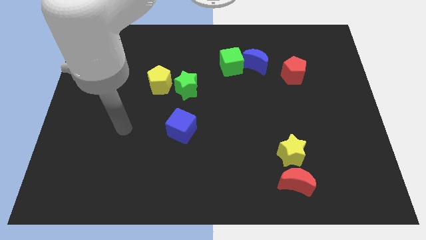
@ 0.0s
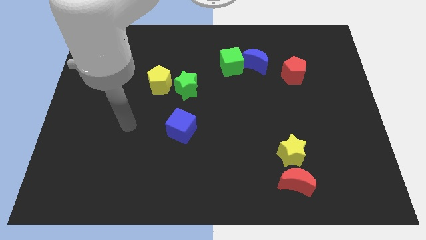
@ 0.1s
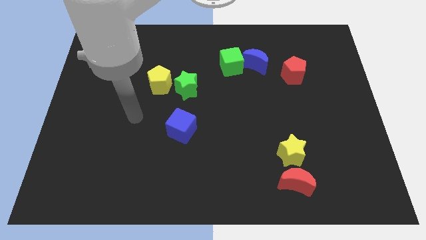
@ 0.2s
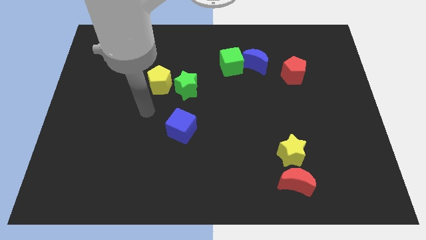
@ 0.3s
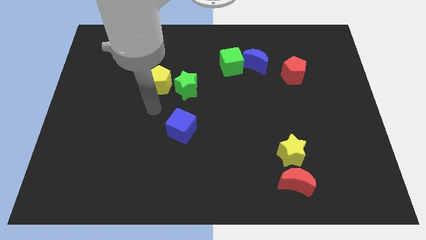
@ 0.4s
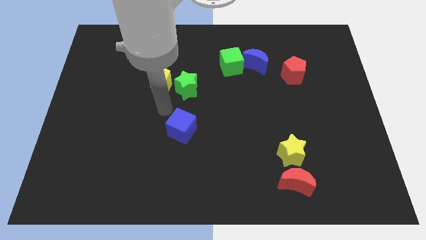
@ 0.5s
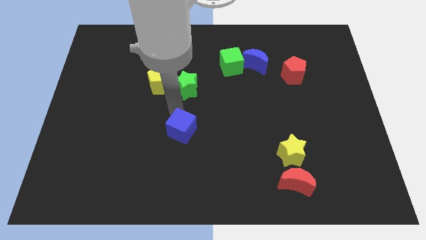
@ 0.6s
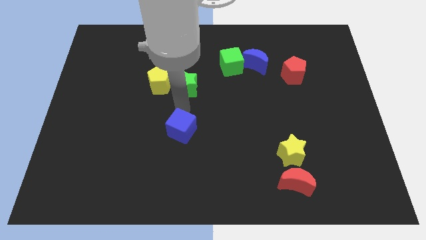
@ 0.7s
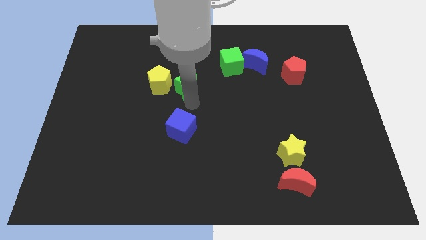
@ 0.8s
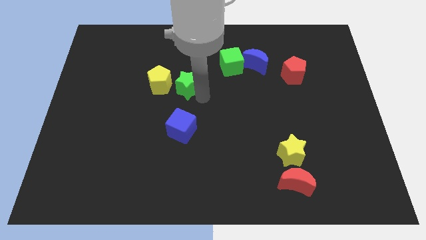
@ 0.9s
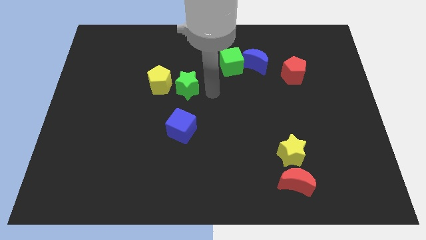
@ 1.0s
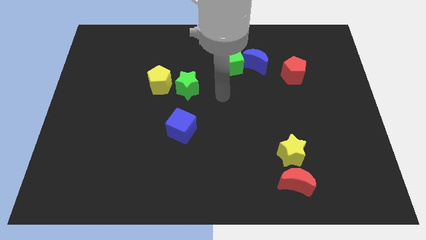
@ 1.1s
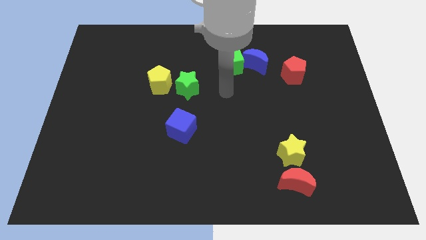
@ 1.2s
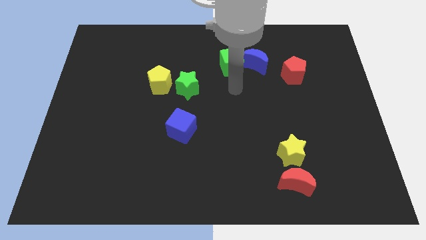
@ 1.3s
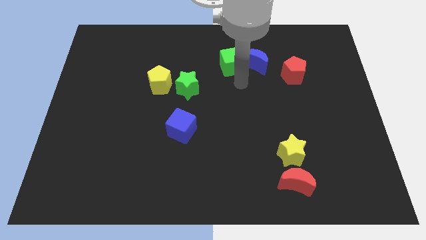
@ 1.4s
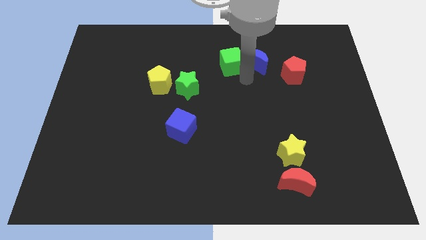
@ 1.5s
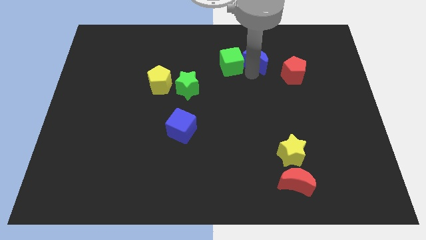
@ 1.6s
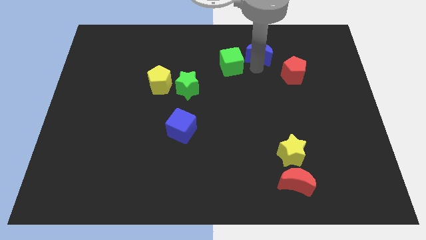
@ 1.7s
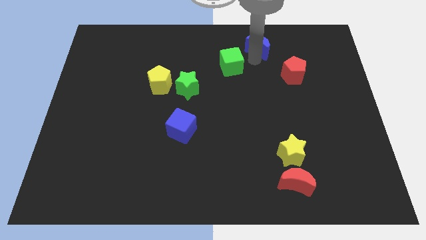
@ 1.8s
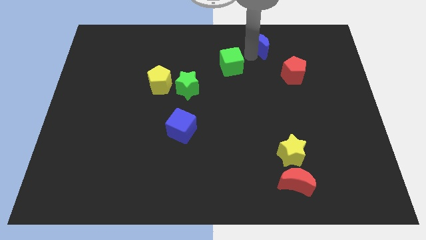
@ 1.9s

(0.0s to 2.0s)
move the green cube away from the blue moon

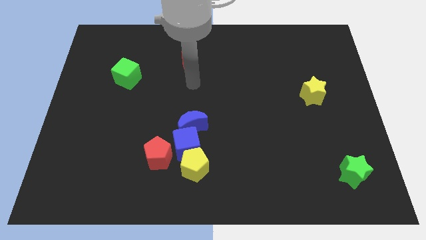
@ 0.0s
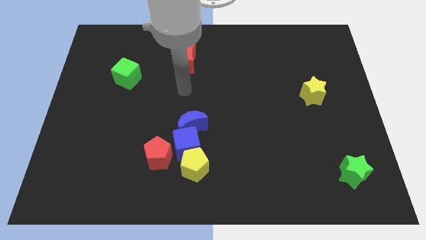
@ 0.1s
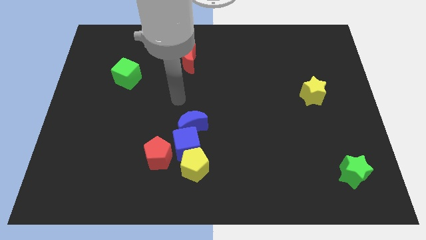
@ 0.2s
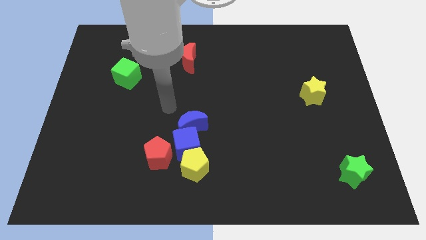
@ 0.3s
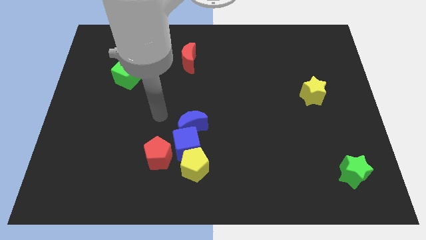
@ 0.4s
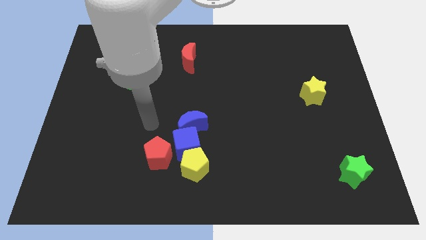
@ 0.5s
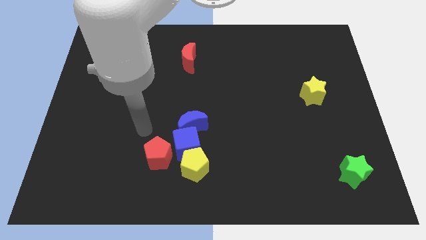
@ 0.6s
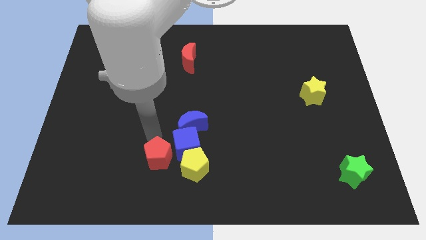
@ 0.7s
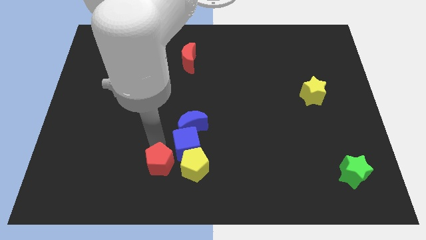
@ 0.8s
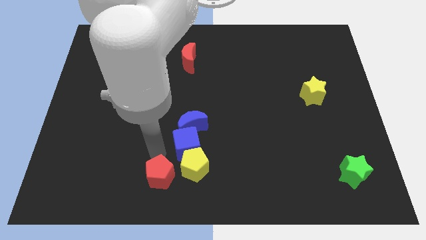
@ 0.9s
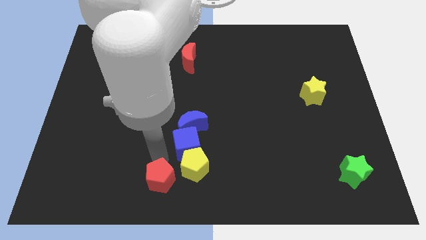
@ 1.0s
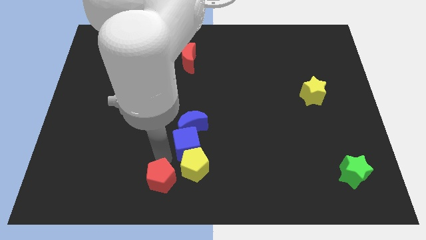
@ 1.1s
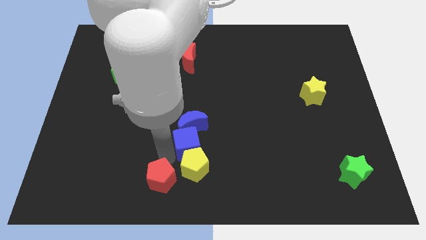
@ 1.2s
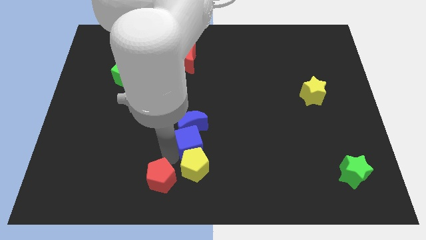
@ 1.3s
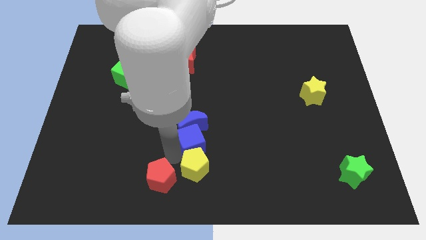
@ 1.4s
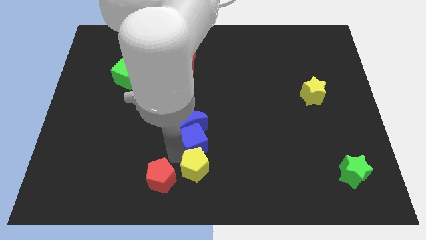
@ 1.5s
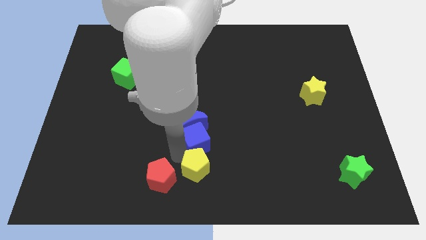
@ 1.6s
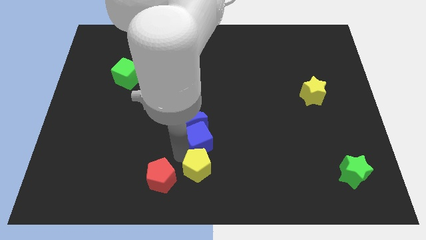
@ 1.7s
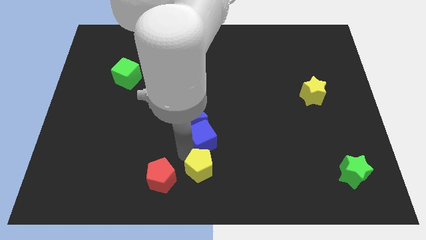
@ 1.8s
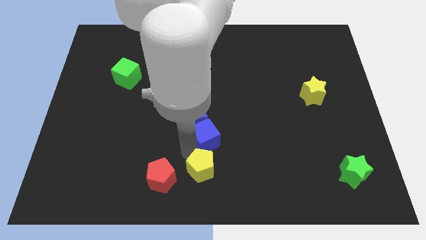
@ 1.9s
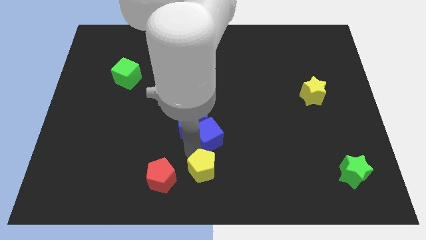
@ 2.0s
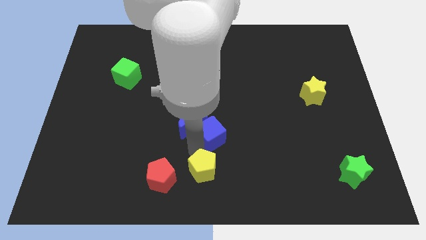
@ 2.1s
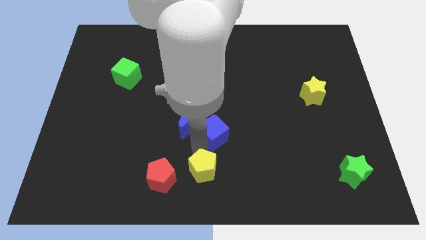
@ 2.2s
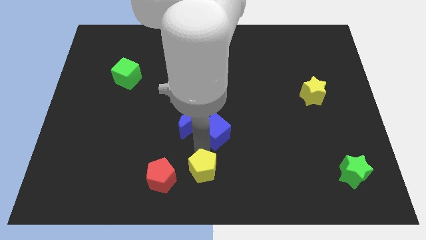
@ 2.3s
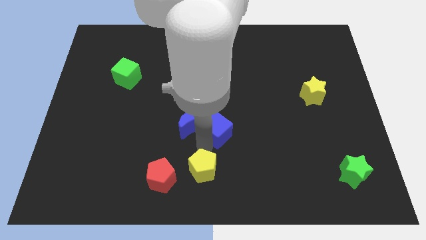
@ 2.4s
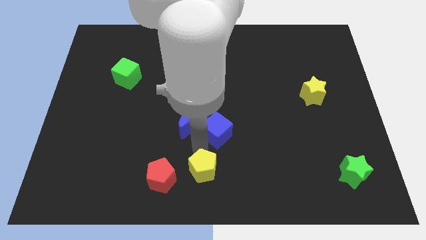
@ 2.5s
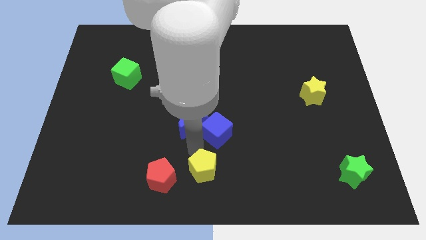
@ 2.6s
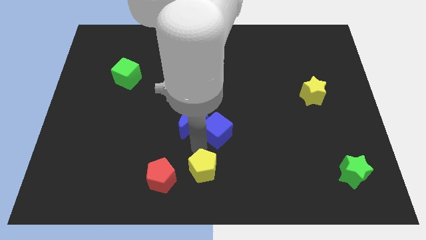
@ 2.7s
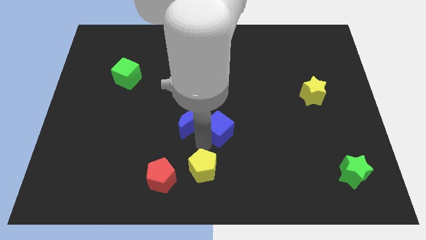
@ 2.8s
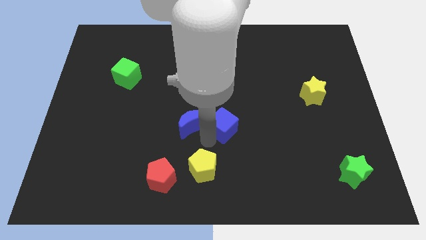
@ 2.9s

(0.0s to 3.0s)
separate the blue cube from the blue moon, yellow pentagon, and red pentagon

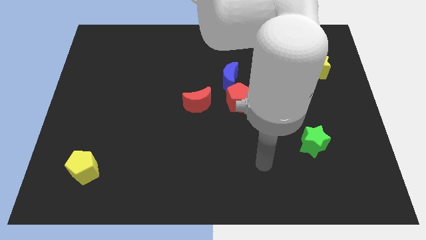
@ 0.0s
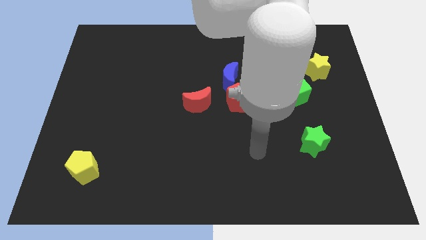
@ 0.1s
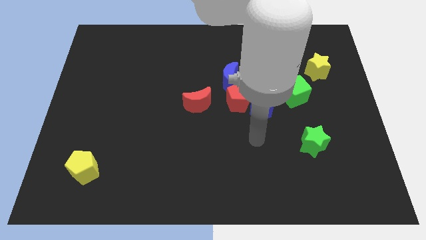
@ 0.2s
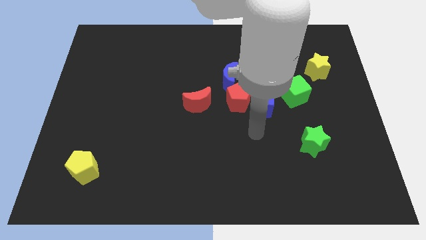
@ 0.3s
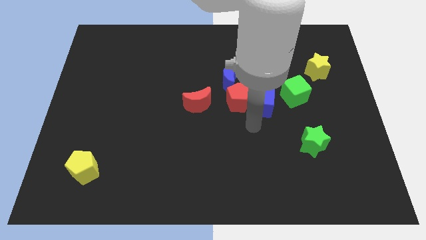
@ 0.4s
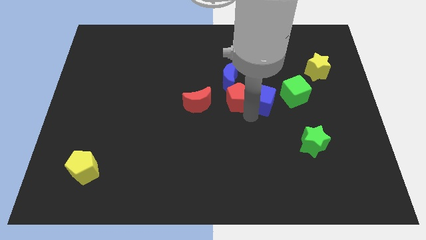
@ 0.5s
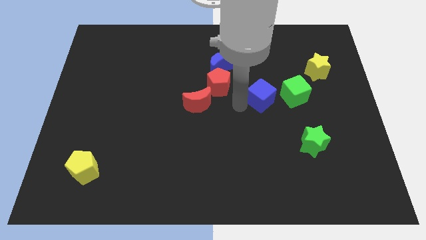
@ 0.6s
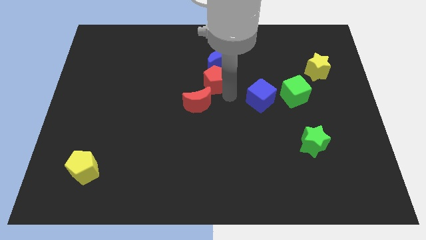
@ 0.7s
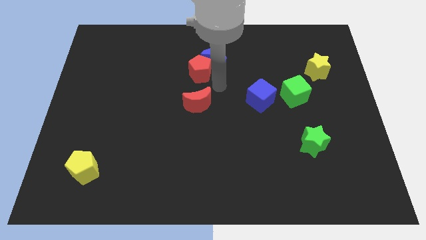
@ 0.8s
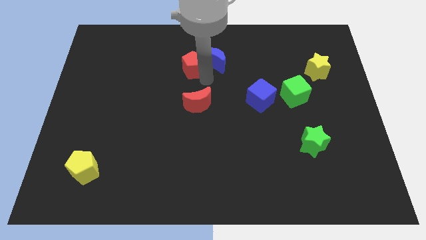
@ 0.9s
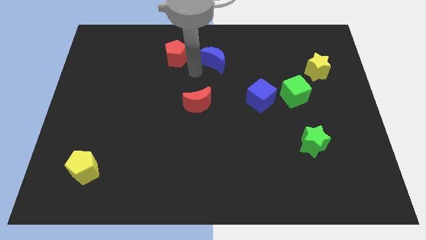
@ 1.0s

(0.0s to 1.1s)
move the blue moon away from the red pentagon

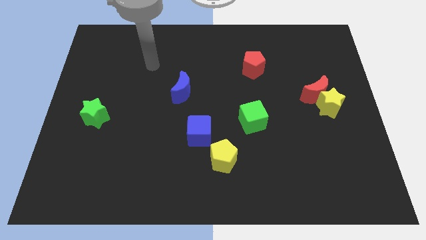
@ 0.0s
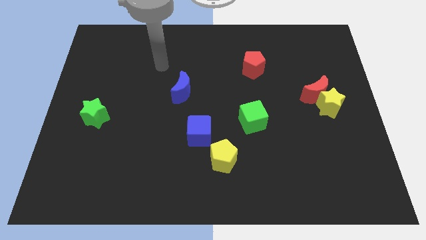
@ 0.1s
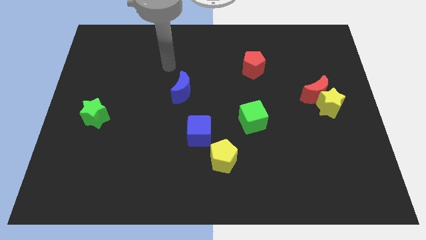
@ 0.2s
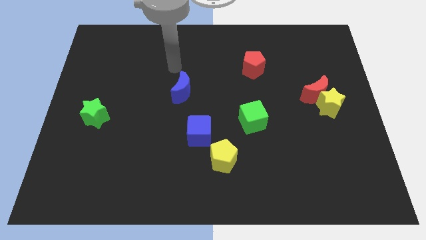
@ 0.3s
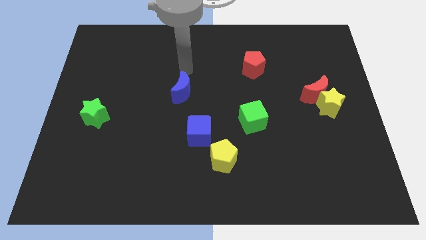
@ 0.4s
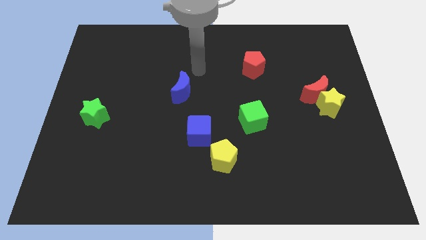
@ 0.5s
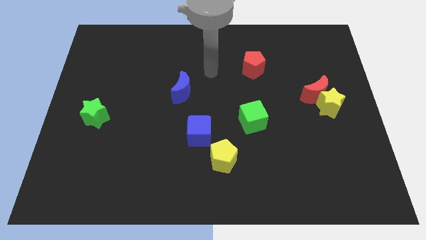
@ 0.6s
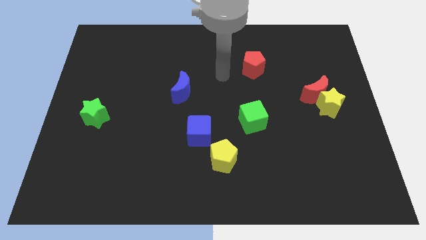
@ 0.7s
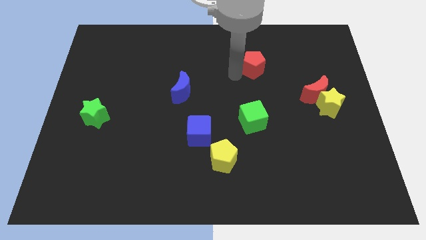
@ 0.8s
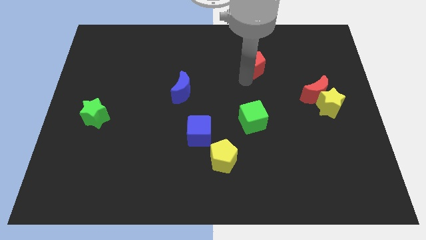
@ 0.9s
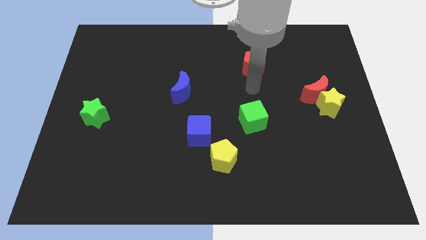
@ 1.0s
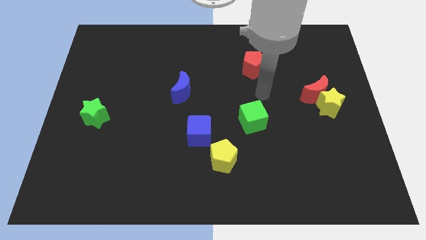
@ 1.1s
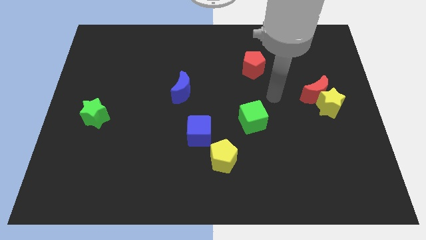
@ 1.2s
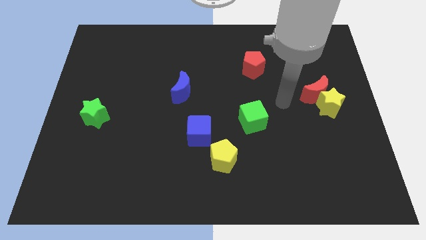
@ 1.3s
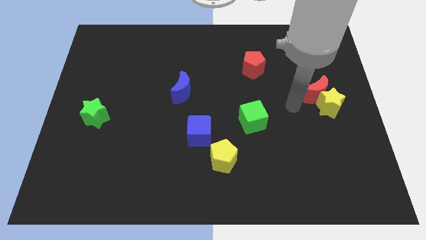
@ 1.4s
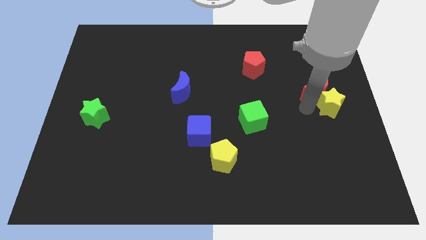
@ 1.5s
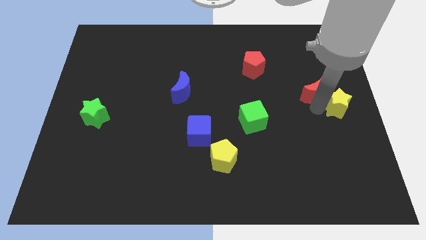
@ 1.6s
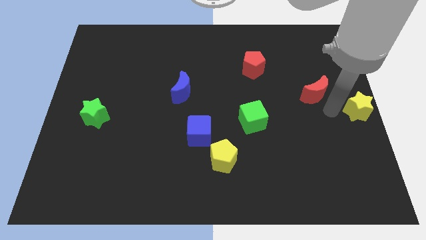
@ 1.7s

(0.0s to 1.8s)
pull the red moon apart from the yellow star

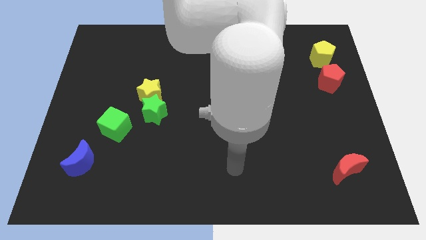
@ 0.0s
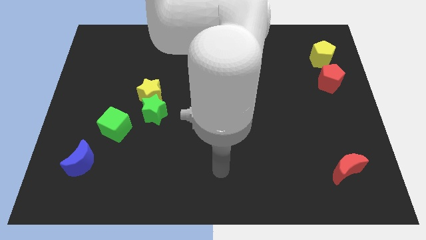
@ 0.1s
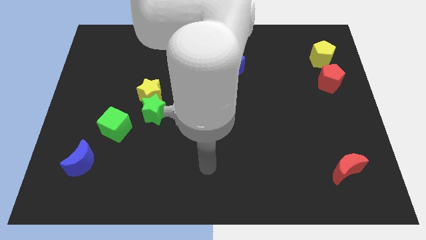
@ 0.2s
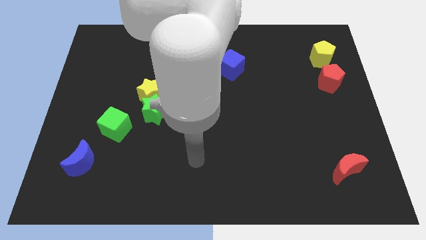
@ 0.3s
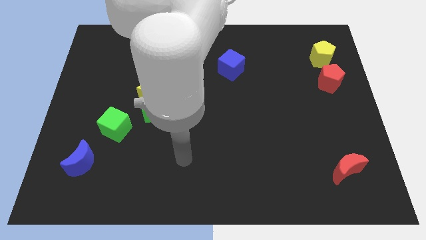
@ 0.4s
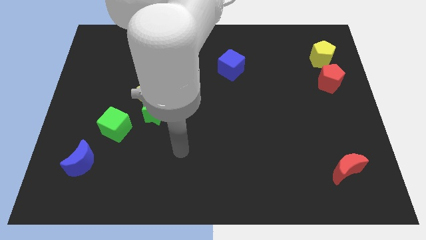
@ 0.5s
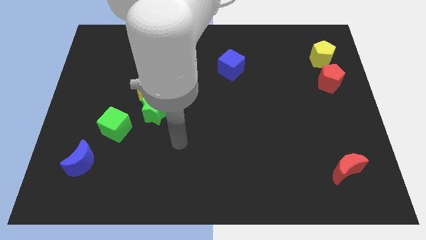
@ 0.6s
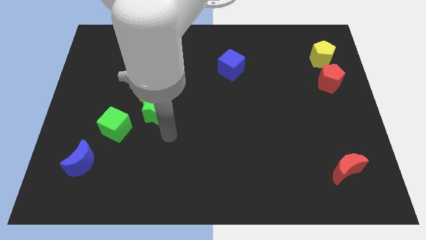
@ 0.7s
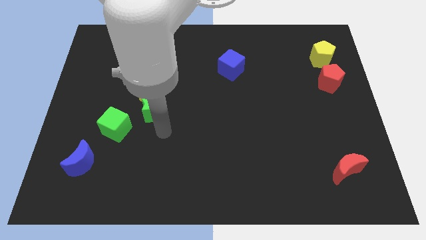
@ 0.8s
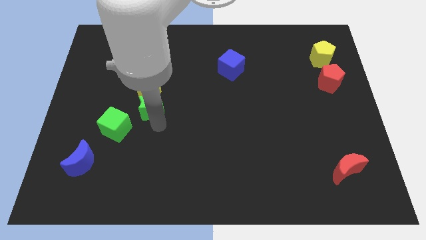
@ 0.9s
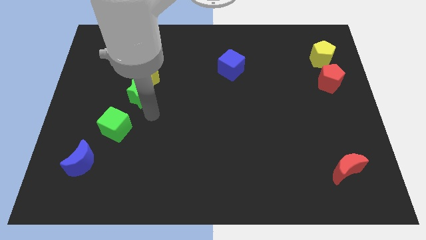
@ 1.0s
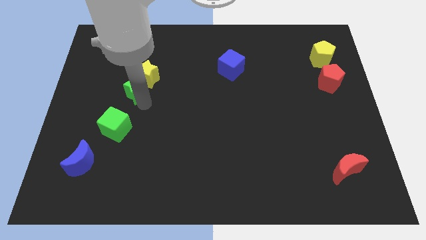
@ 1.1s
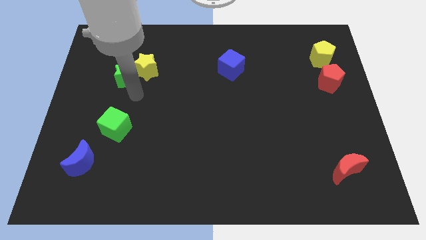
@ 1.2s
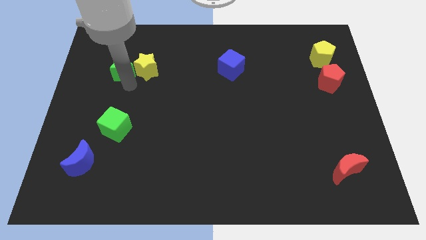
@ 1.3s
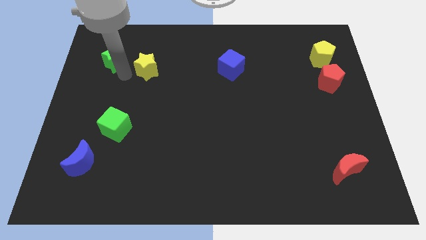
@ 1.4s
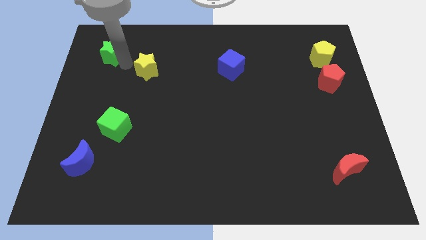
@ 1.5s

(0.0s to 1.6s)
pull the yellow star apart from the green star
